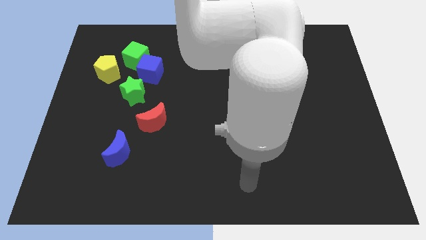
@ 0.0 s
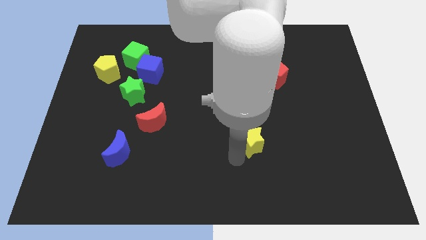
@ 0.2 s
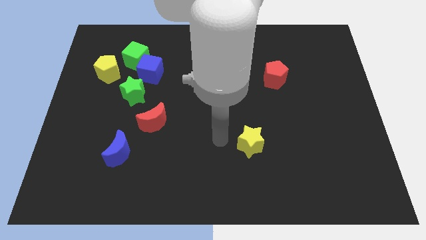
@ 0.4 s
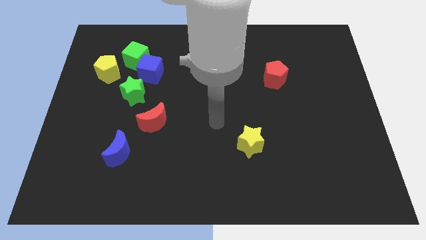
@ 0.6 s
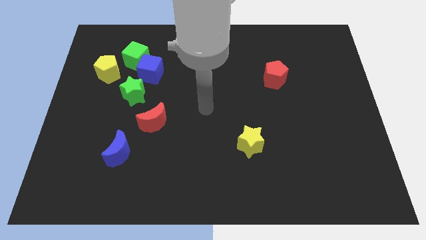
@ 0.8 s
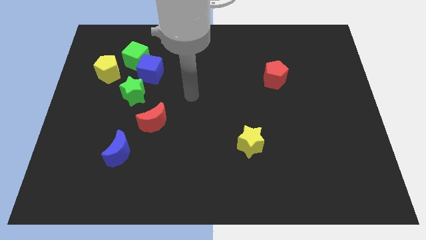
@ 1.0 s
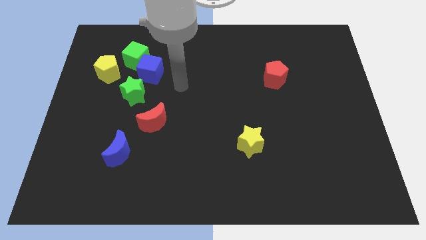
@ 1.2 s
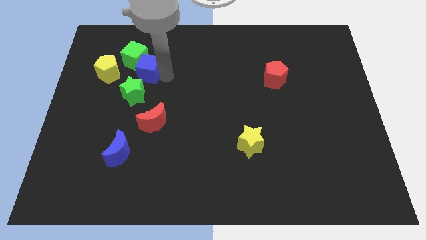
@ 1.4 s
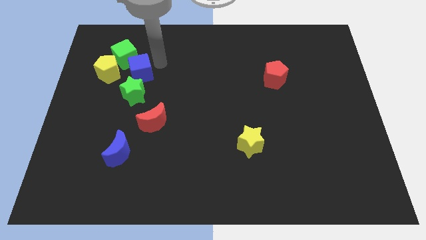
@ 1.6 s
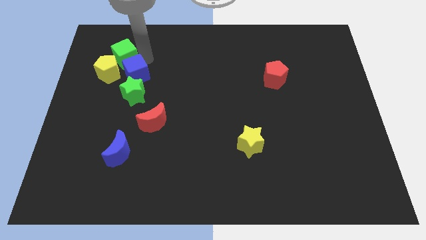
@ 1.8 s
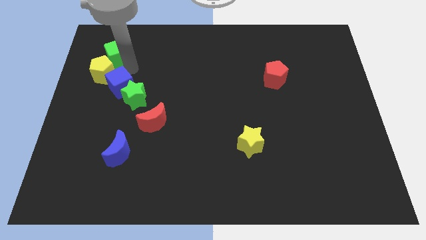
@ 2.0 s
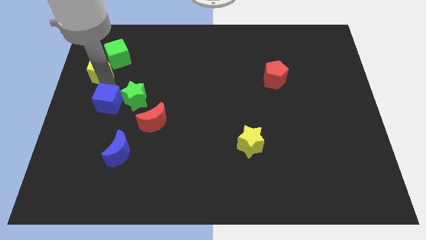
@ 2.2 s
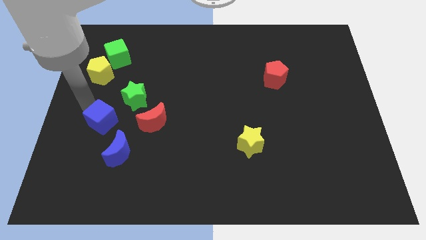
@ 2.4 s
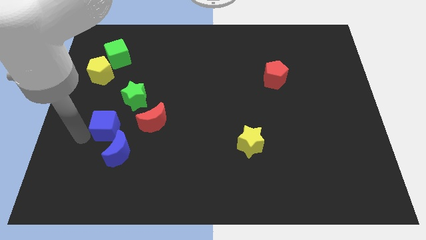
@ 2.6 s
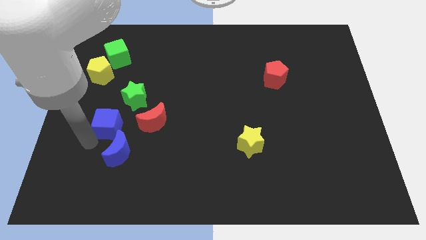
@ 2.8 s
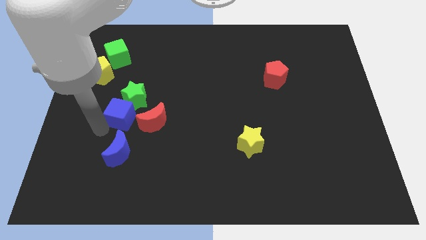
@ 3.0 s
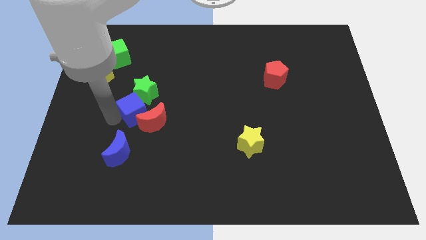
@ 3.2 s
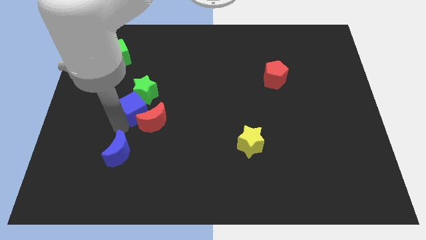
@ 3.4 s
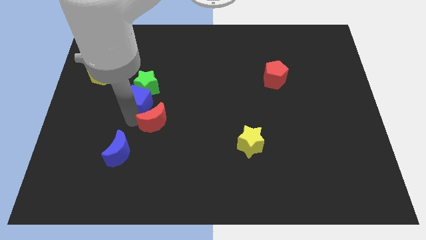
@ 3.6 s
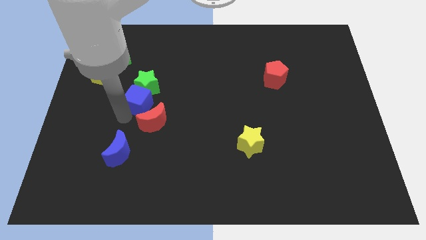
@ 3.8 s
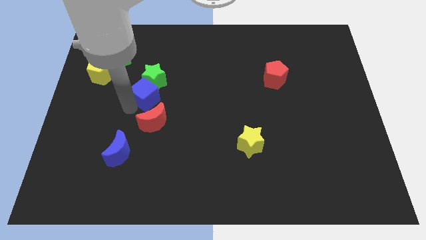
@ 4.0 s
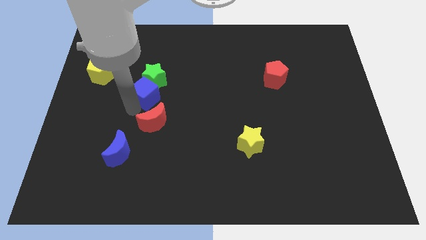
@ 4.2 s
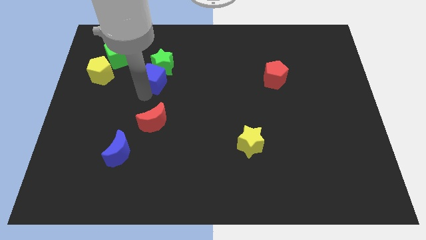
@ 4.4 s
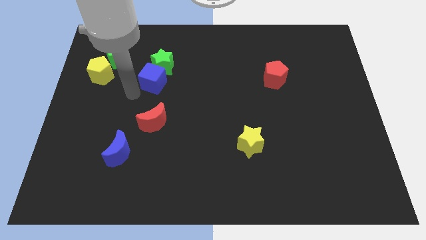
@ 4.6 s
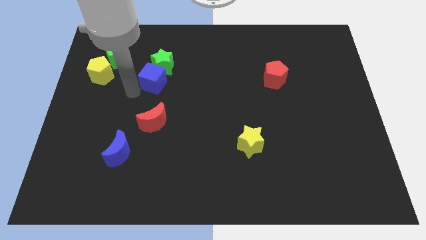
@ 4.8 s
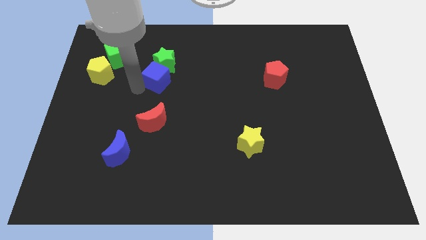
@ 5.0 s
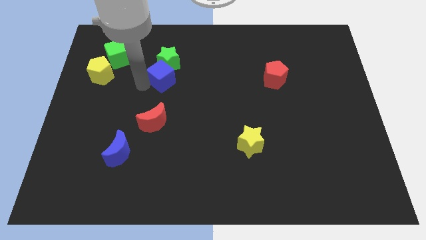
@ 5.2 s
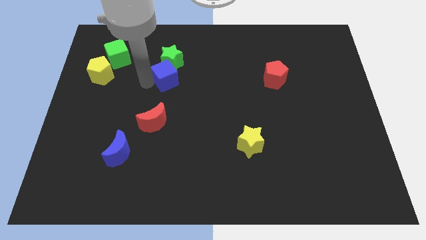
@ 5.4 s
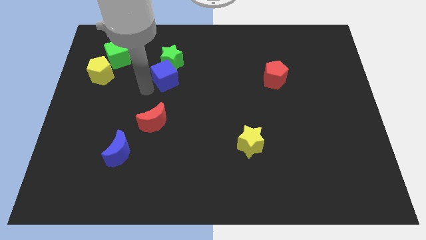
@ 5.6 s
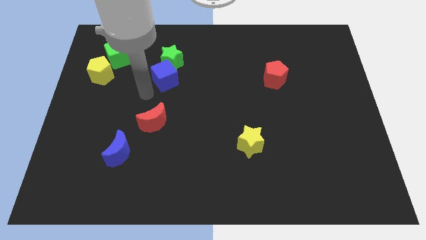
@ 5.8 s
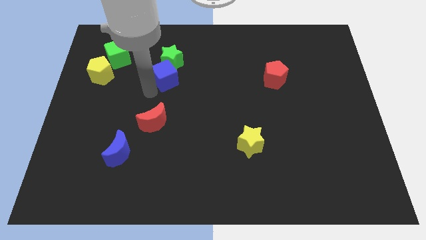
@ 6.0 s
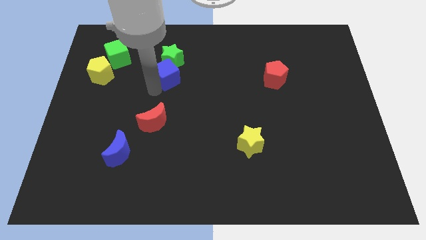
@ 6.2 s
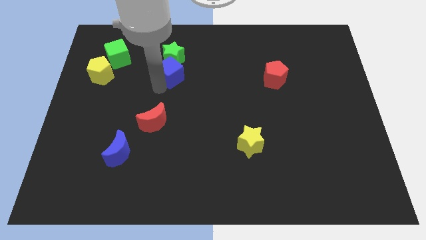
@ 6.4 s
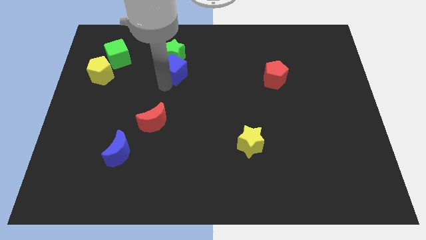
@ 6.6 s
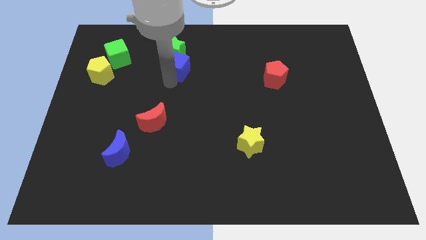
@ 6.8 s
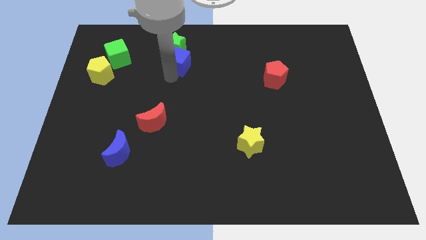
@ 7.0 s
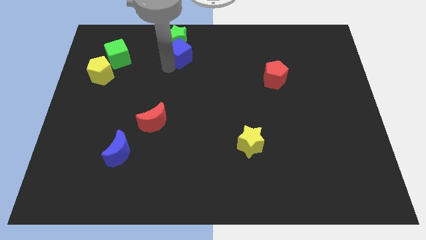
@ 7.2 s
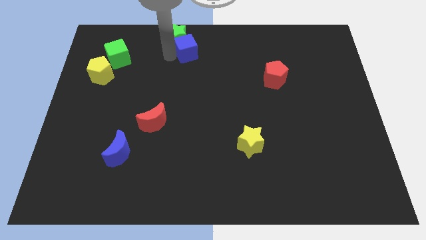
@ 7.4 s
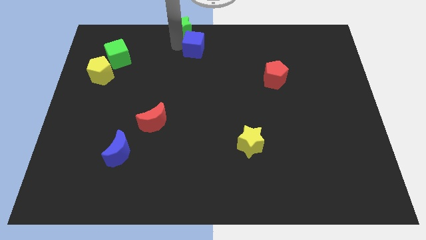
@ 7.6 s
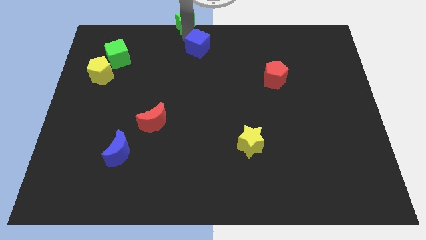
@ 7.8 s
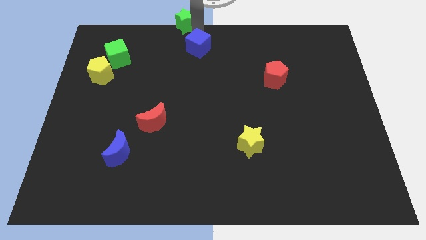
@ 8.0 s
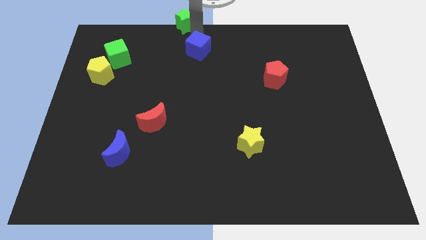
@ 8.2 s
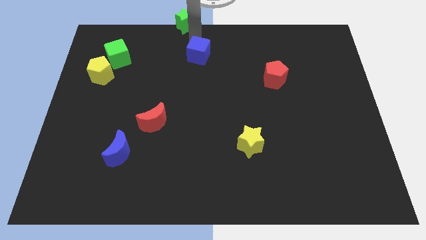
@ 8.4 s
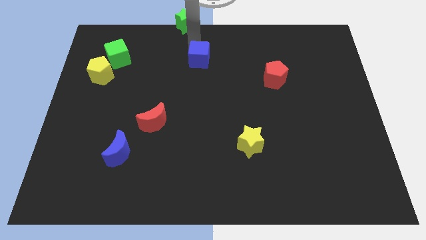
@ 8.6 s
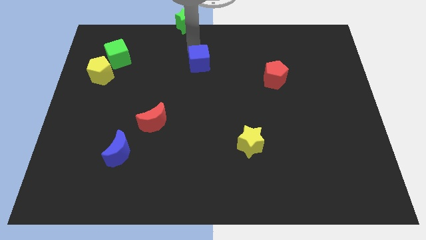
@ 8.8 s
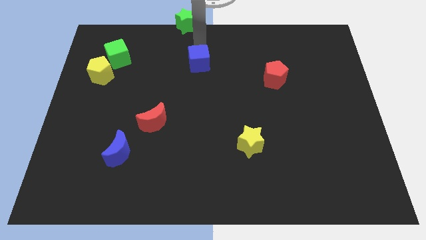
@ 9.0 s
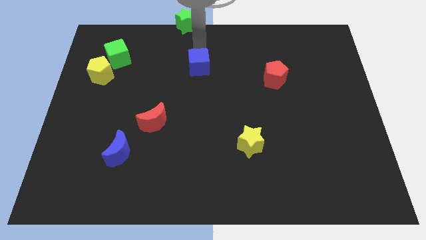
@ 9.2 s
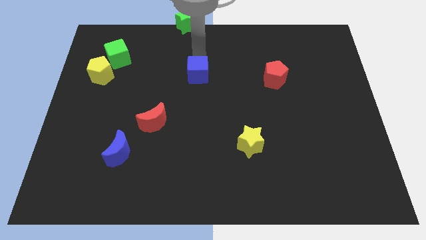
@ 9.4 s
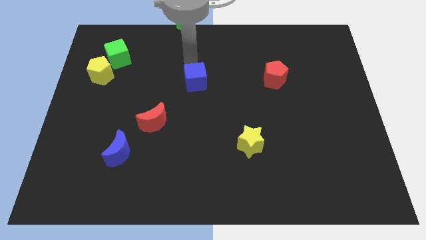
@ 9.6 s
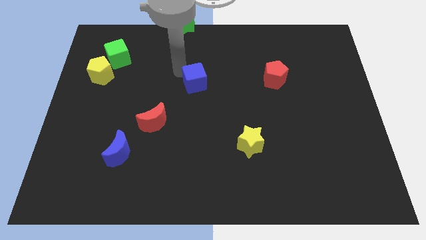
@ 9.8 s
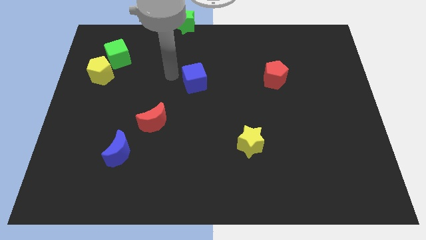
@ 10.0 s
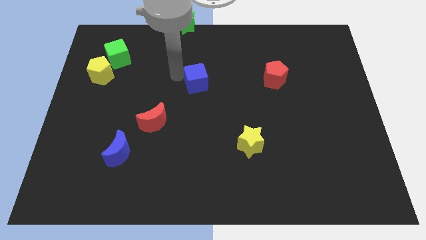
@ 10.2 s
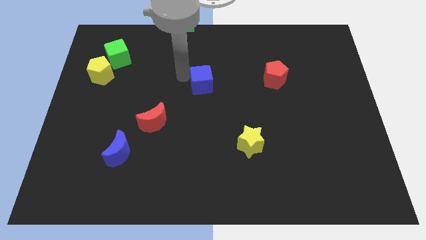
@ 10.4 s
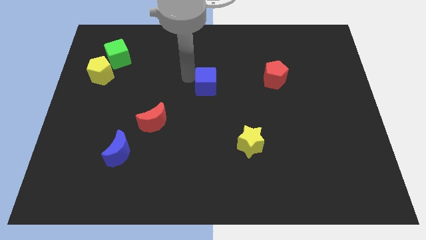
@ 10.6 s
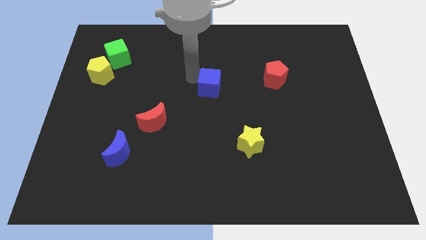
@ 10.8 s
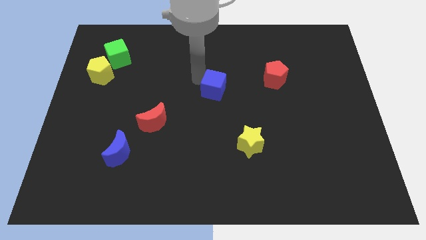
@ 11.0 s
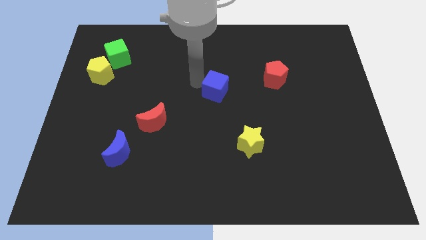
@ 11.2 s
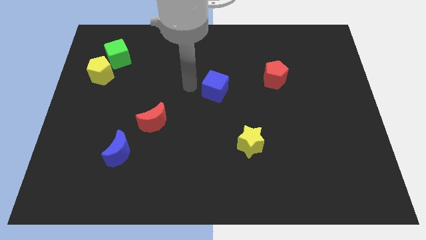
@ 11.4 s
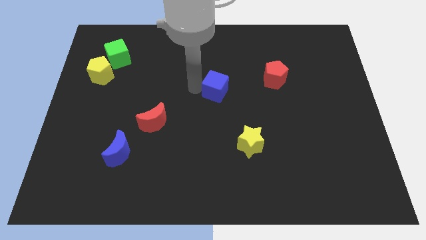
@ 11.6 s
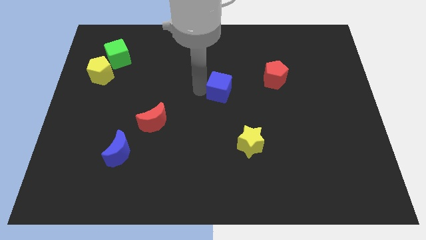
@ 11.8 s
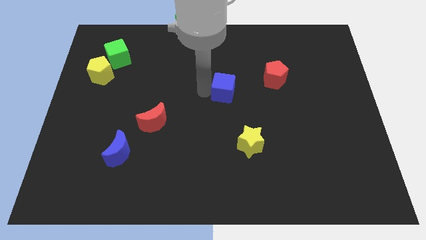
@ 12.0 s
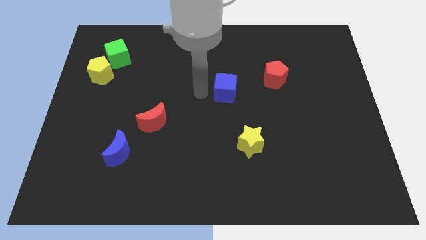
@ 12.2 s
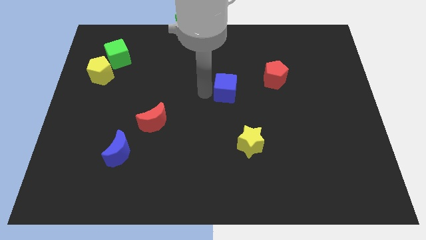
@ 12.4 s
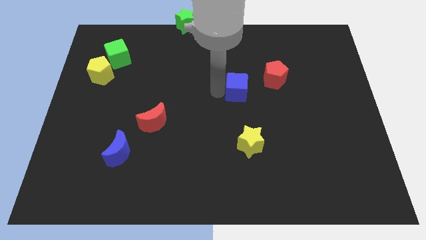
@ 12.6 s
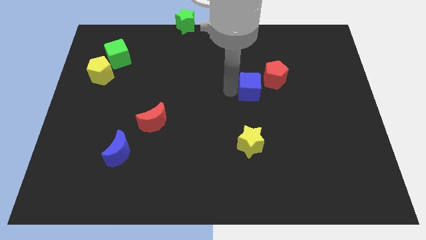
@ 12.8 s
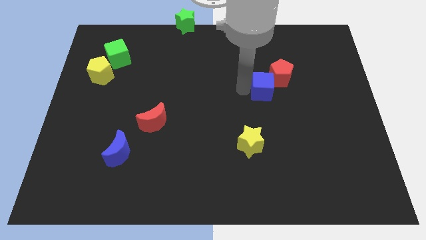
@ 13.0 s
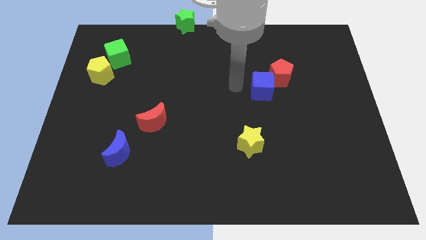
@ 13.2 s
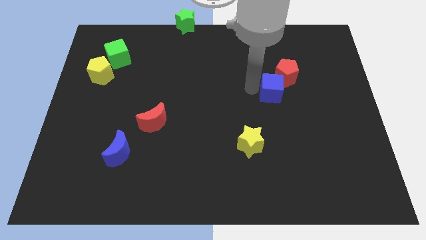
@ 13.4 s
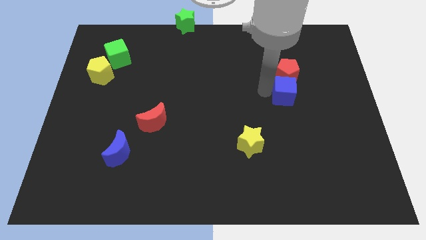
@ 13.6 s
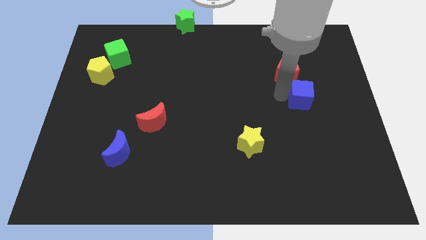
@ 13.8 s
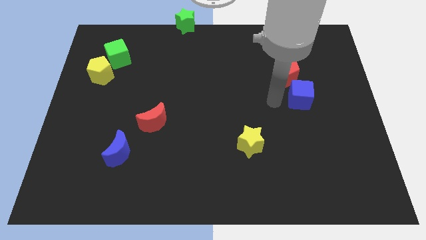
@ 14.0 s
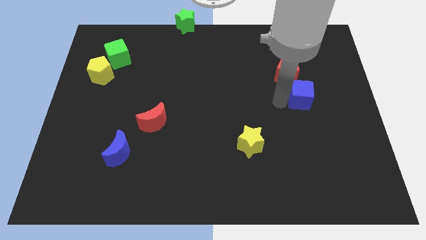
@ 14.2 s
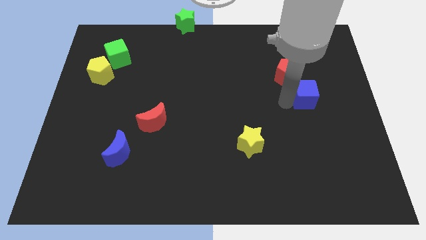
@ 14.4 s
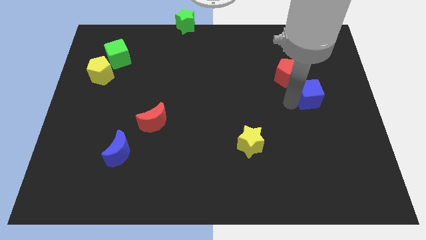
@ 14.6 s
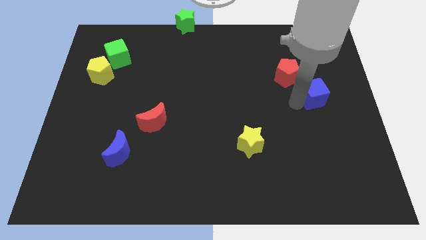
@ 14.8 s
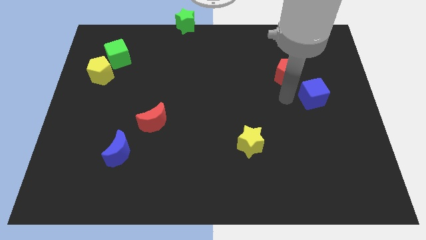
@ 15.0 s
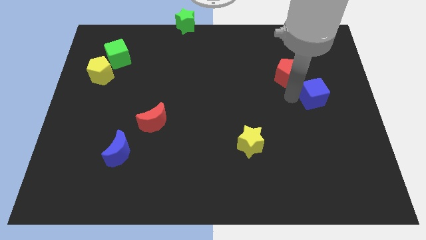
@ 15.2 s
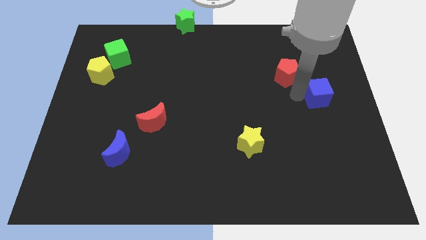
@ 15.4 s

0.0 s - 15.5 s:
move the blue cube to the center right
